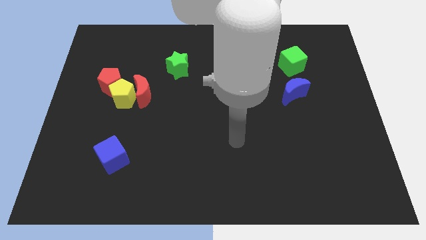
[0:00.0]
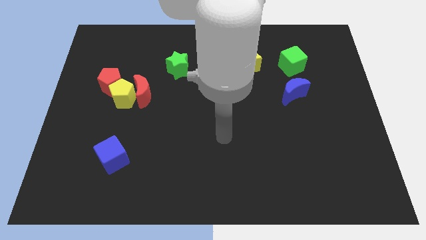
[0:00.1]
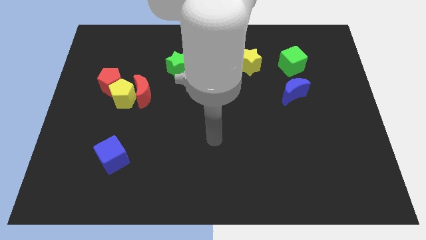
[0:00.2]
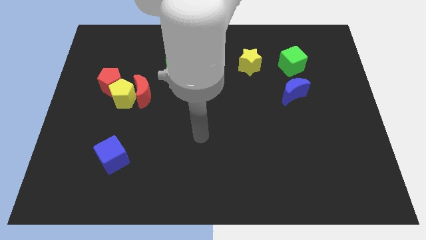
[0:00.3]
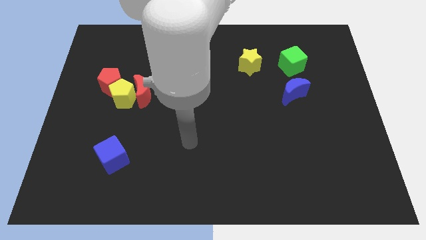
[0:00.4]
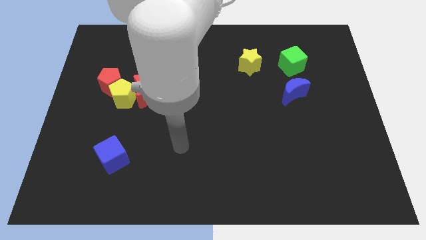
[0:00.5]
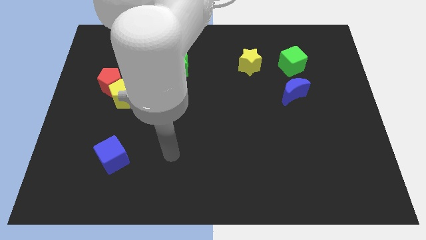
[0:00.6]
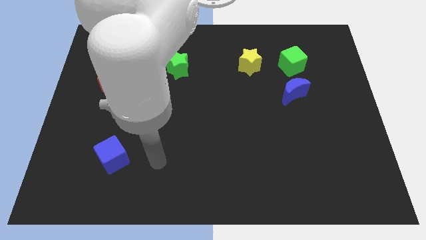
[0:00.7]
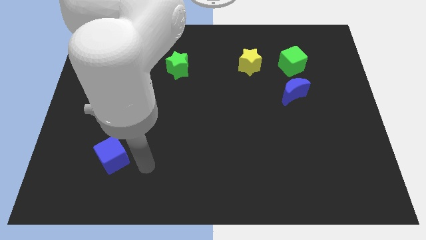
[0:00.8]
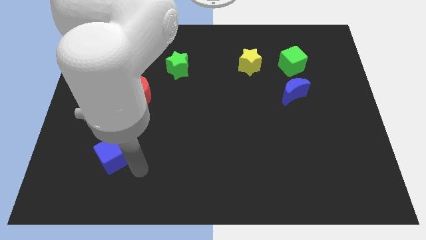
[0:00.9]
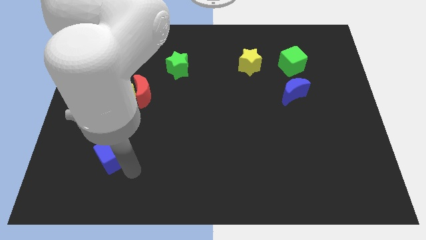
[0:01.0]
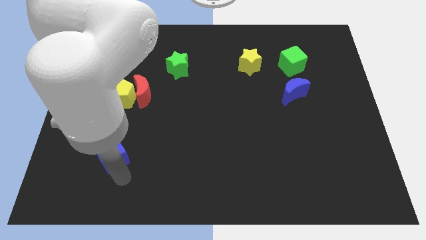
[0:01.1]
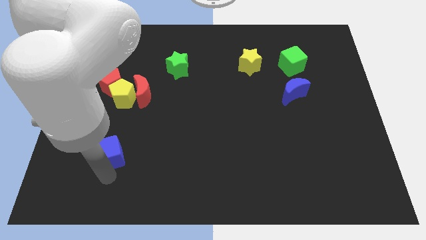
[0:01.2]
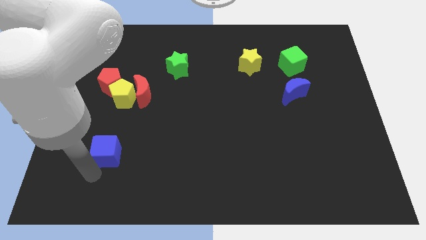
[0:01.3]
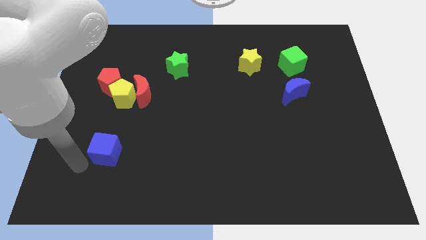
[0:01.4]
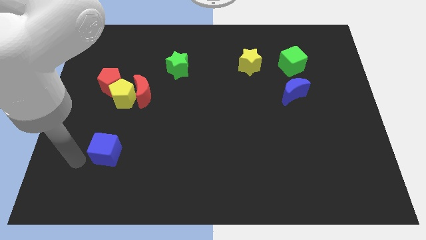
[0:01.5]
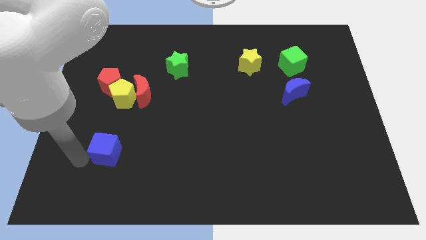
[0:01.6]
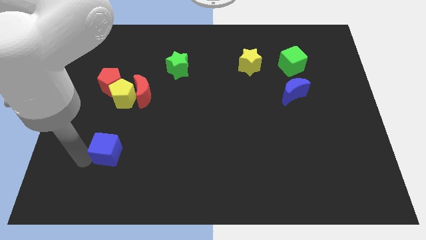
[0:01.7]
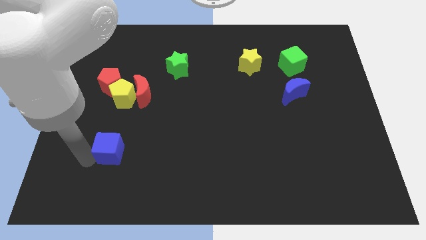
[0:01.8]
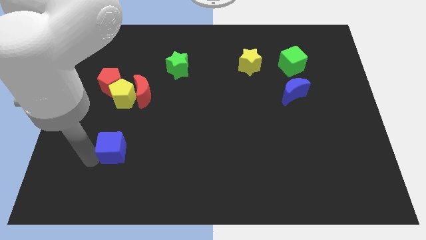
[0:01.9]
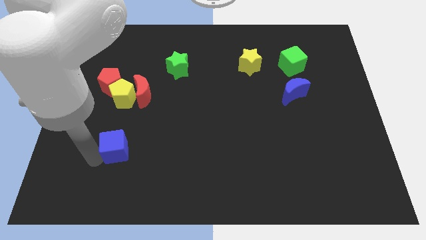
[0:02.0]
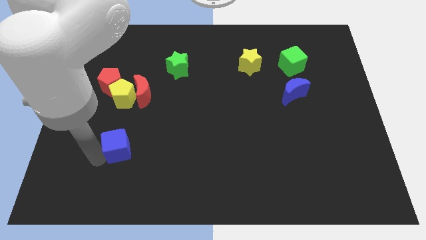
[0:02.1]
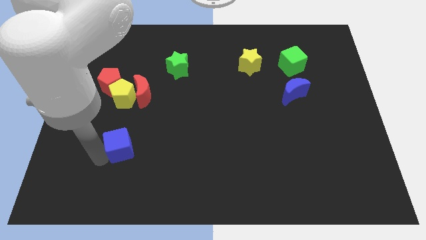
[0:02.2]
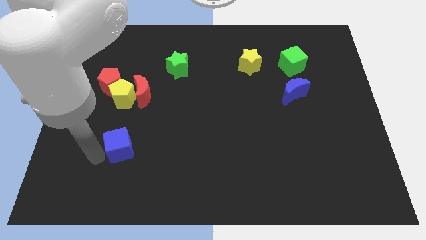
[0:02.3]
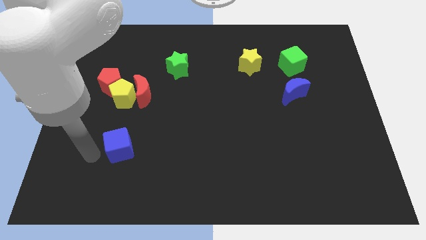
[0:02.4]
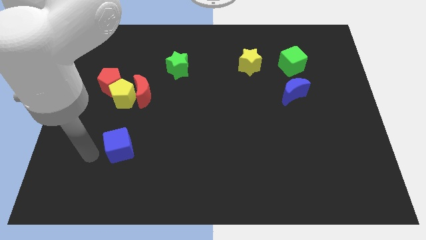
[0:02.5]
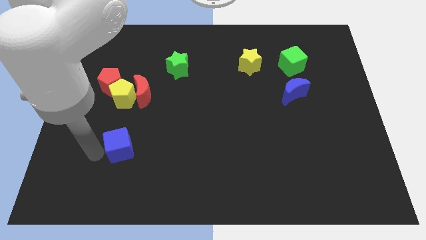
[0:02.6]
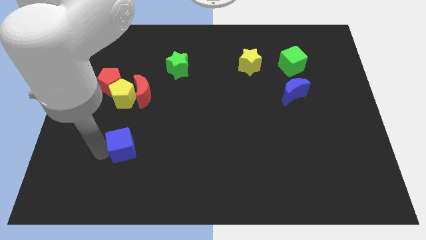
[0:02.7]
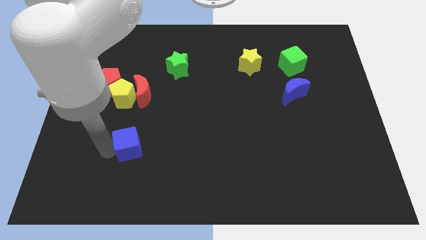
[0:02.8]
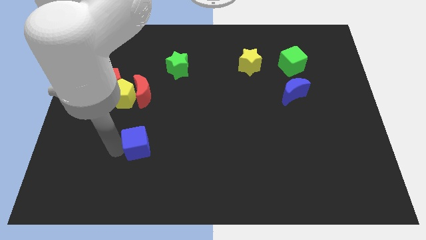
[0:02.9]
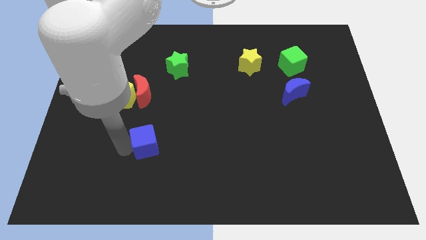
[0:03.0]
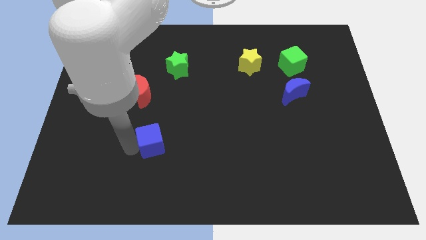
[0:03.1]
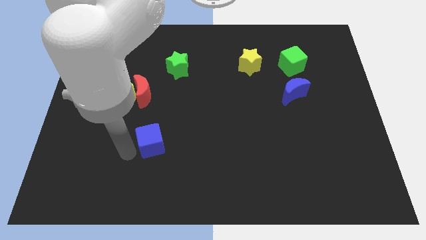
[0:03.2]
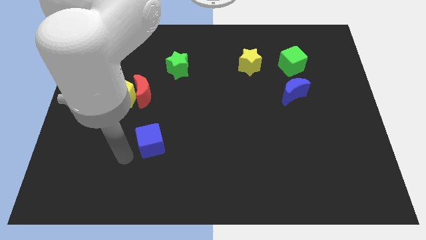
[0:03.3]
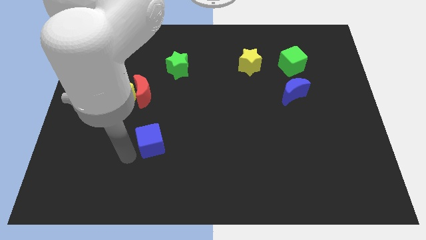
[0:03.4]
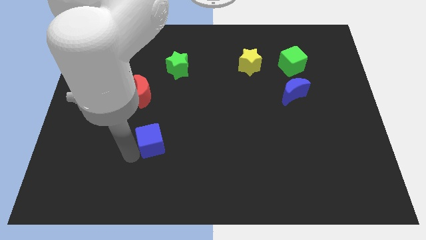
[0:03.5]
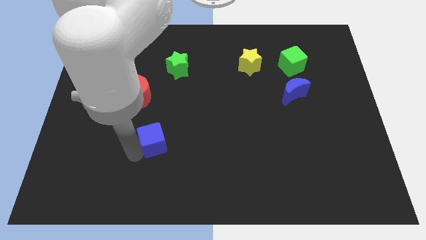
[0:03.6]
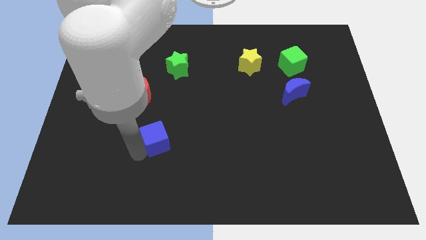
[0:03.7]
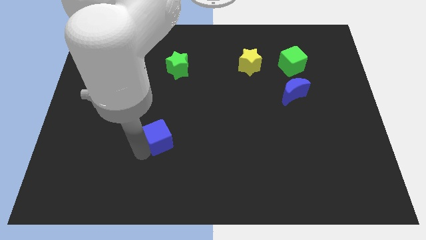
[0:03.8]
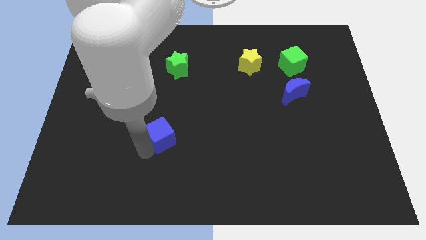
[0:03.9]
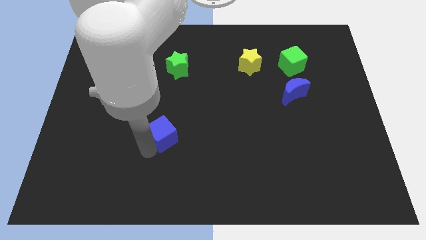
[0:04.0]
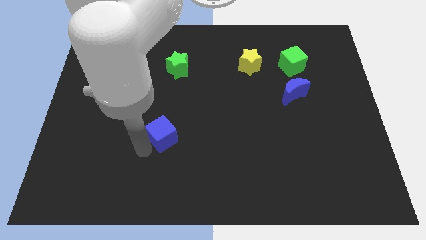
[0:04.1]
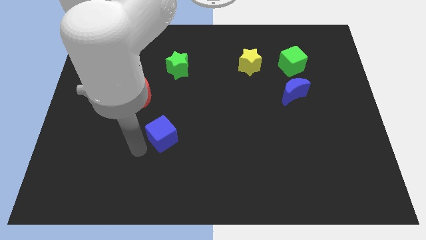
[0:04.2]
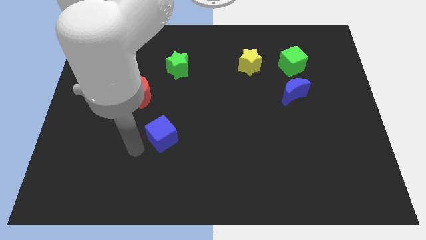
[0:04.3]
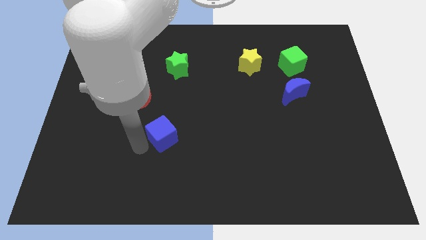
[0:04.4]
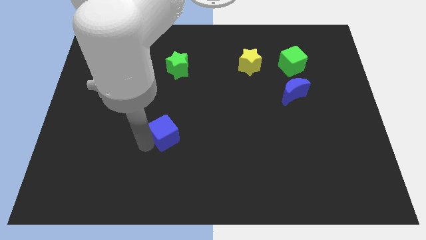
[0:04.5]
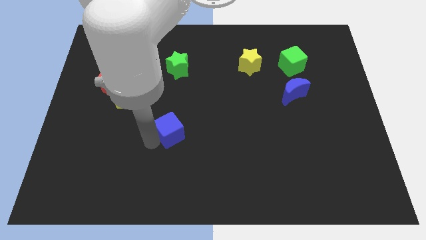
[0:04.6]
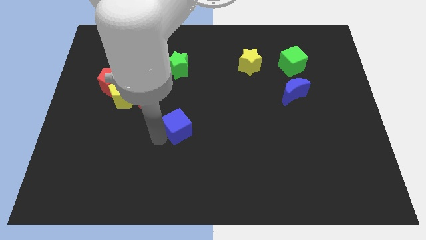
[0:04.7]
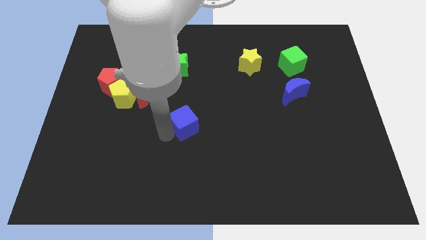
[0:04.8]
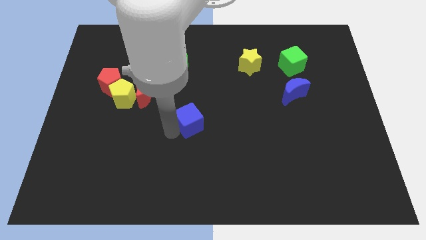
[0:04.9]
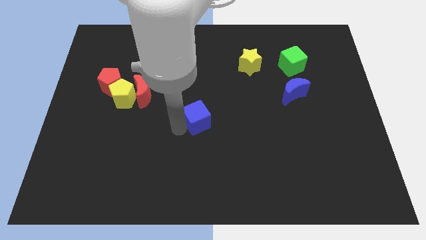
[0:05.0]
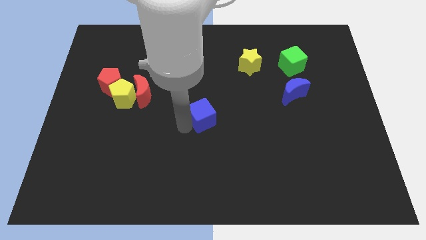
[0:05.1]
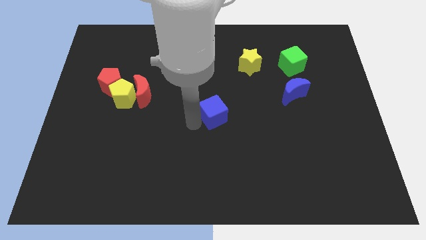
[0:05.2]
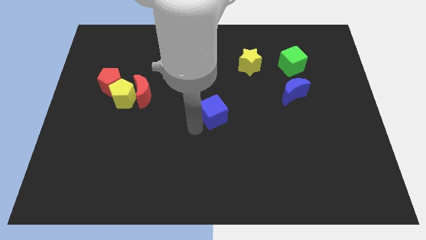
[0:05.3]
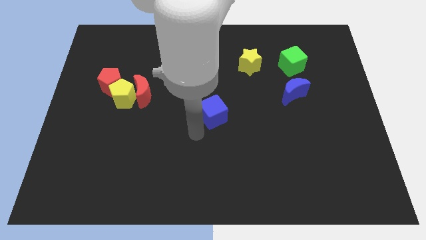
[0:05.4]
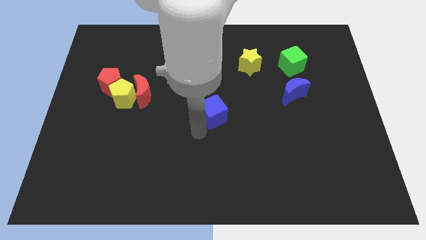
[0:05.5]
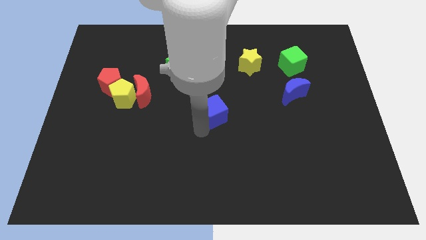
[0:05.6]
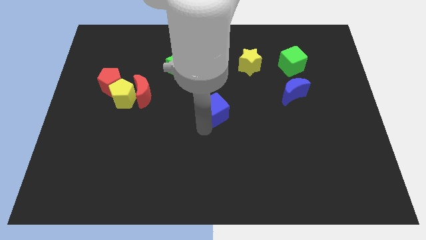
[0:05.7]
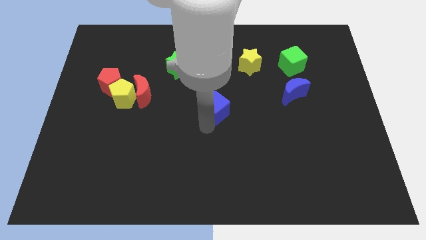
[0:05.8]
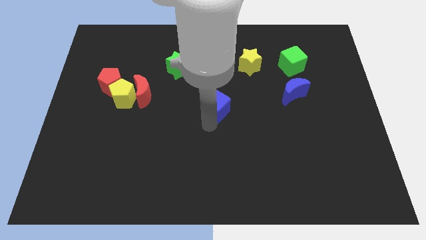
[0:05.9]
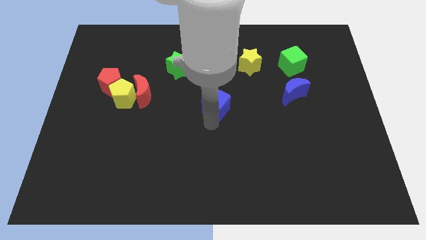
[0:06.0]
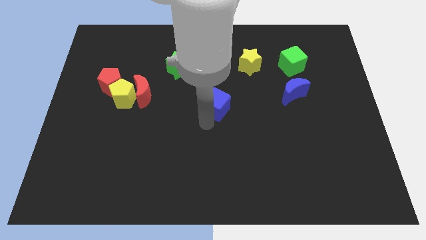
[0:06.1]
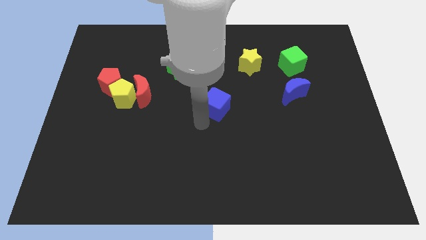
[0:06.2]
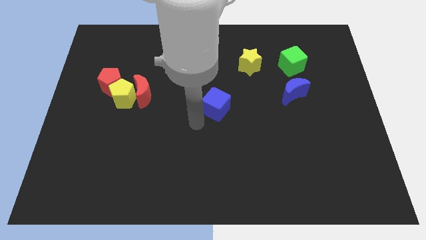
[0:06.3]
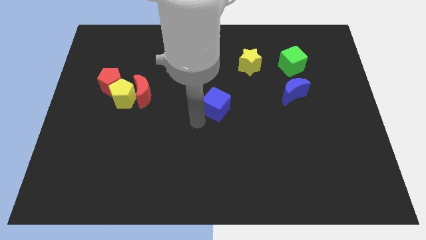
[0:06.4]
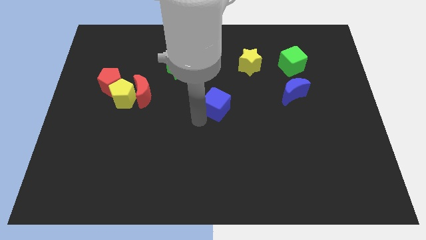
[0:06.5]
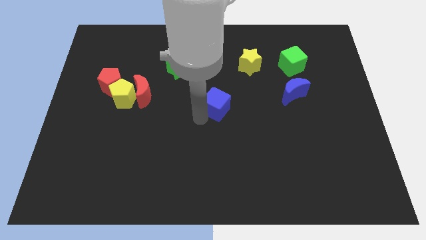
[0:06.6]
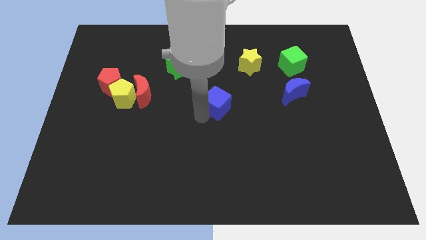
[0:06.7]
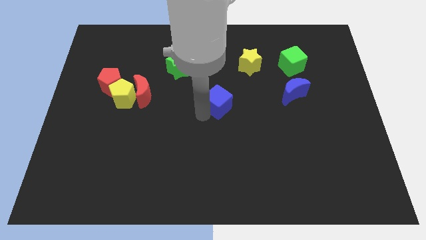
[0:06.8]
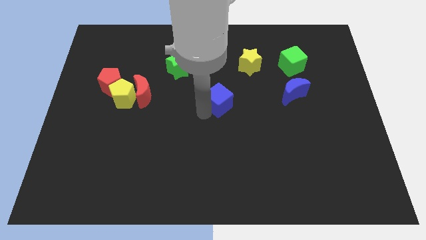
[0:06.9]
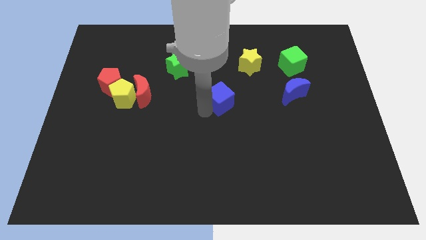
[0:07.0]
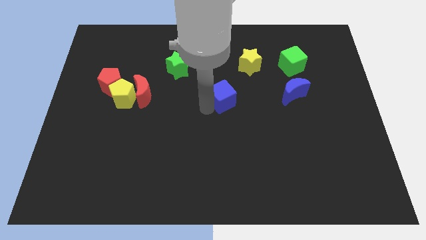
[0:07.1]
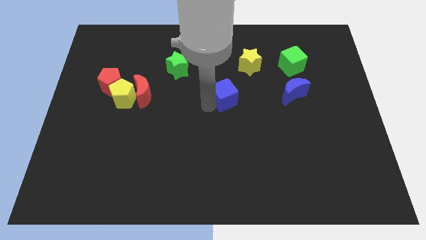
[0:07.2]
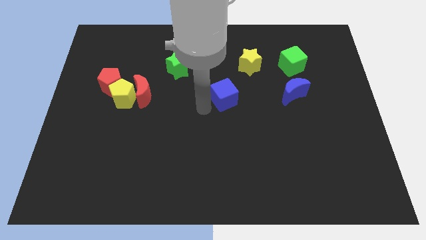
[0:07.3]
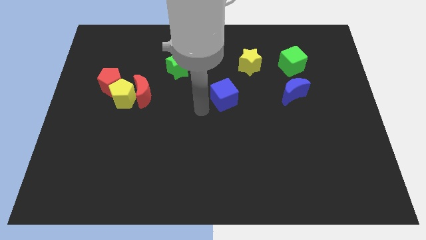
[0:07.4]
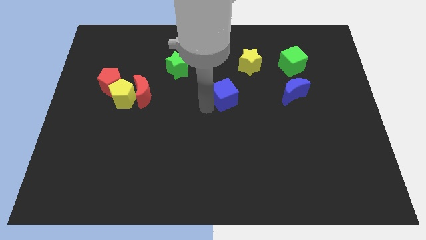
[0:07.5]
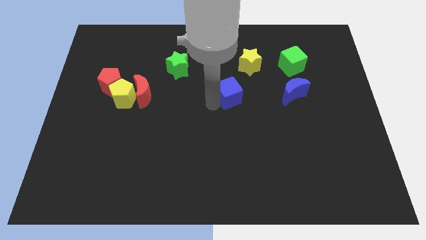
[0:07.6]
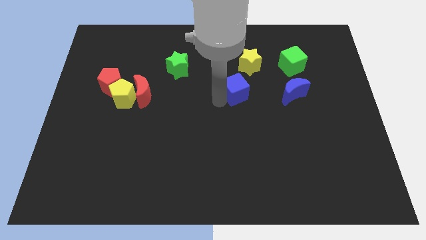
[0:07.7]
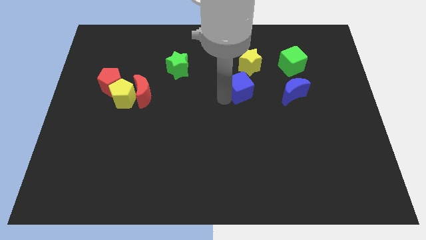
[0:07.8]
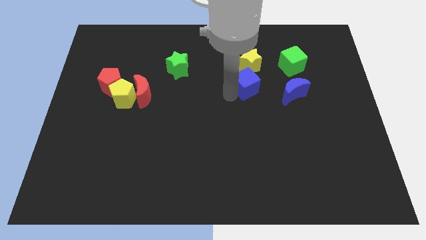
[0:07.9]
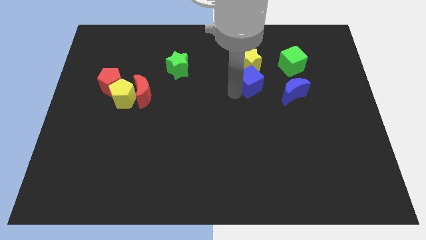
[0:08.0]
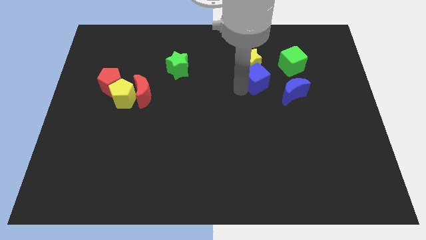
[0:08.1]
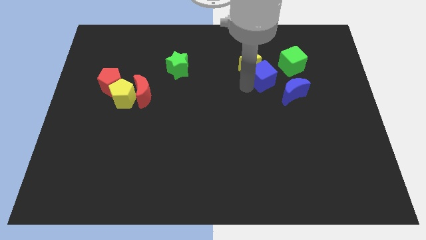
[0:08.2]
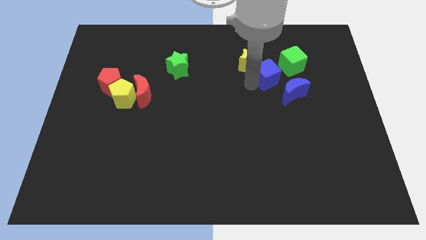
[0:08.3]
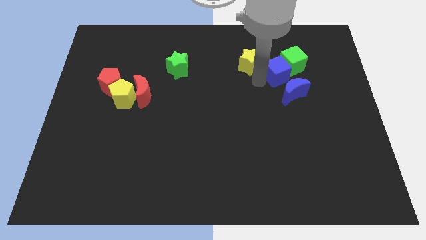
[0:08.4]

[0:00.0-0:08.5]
push the blue cube next to the green cube
